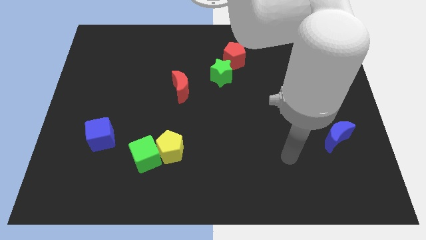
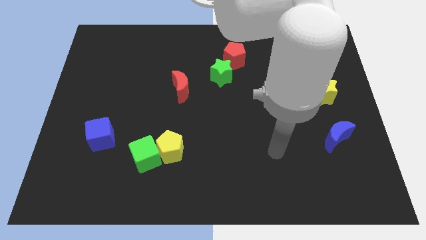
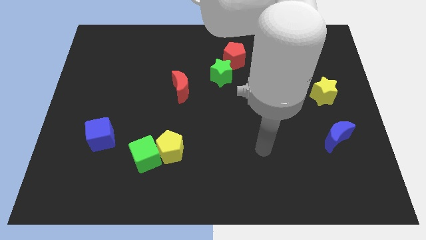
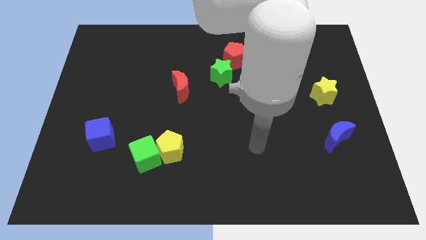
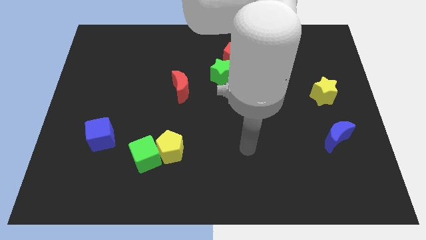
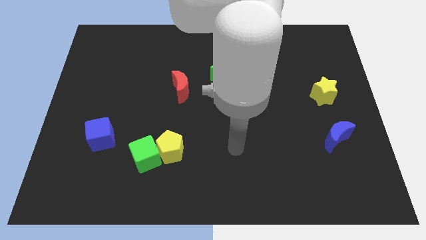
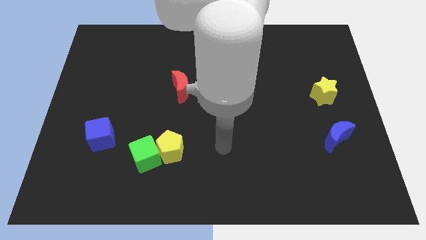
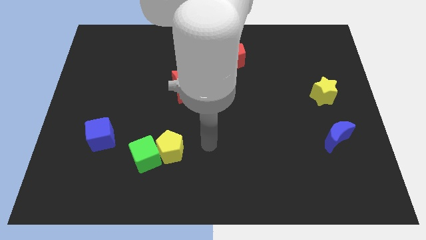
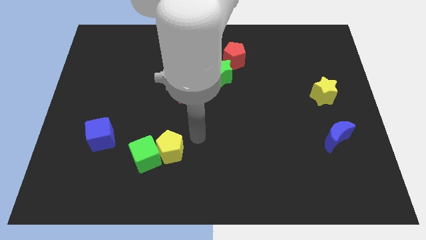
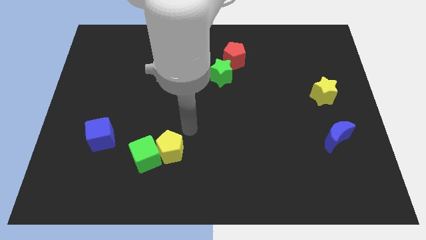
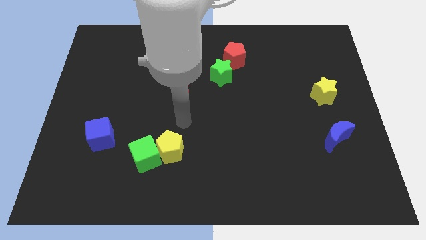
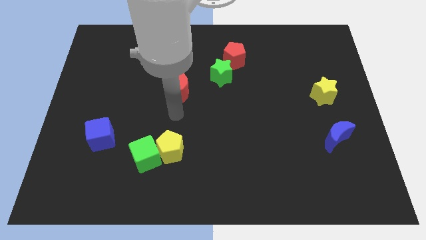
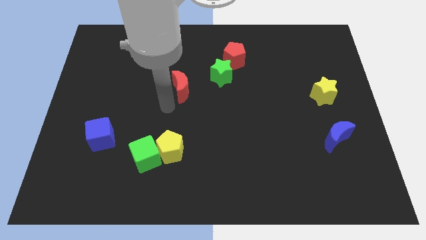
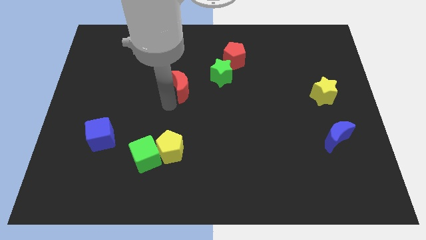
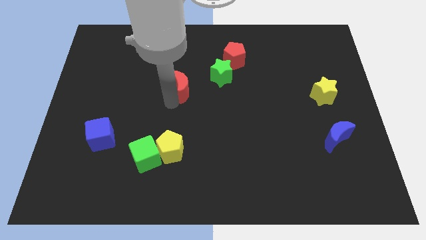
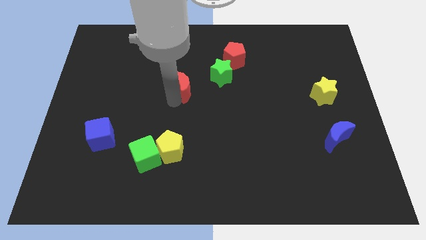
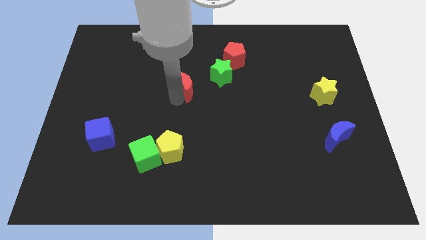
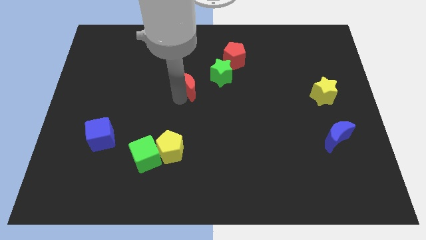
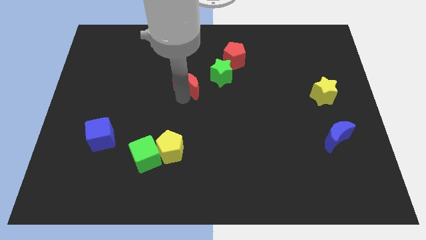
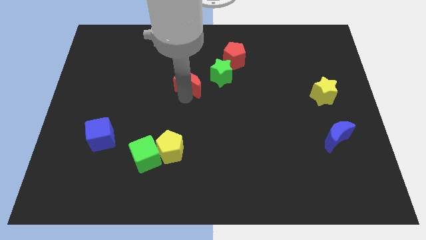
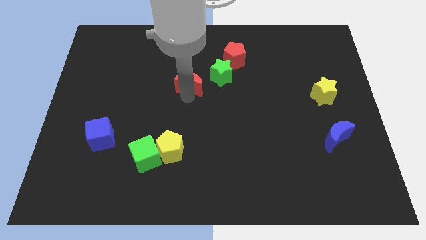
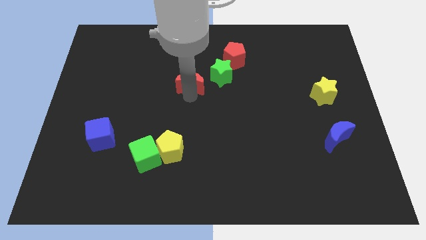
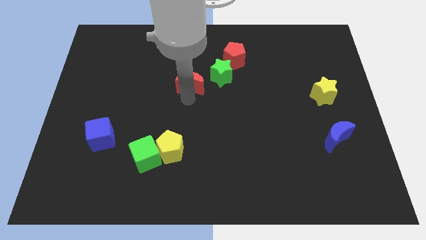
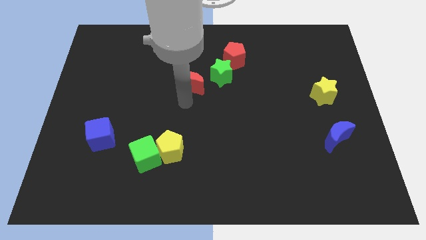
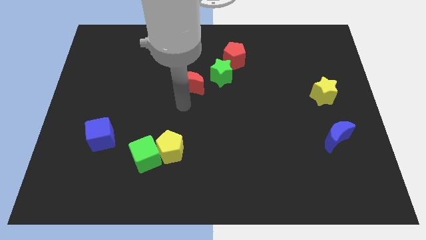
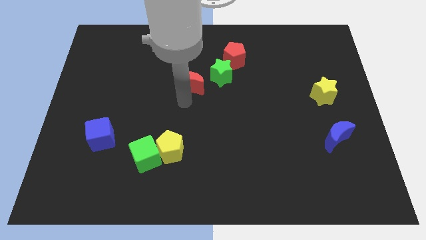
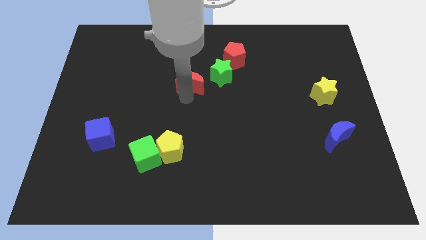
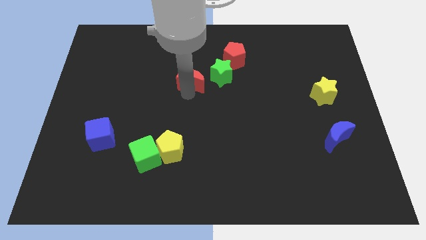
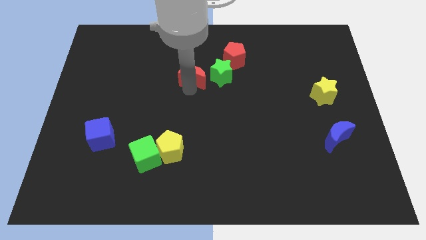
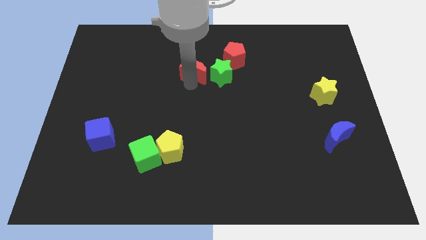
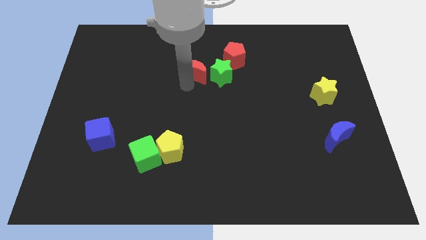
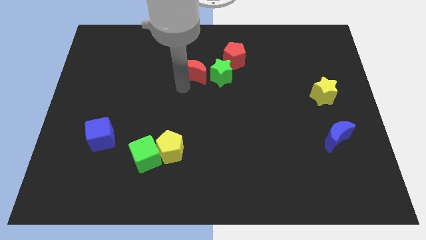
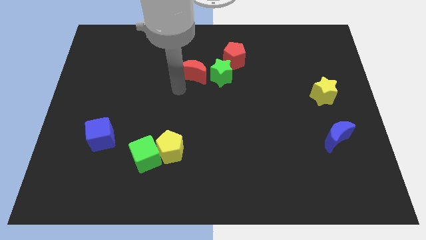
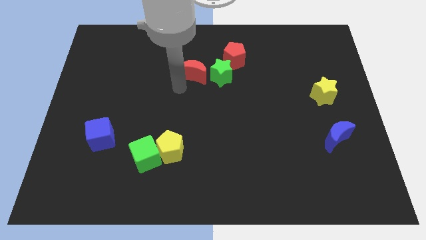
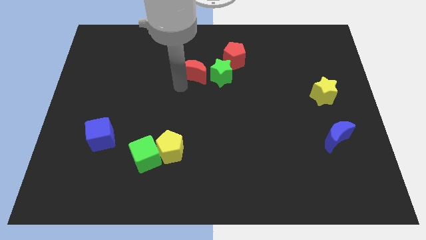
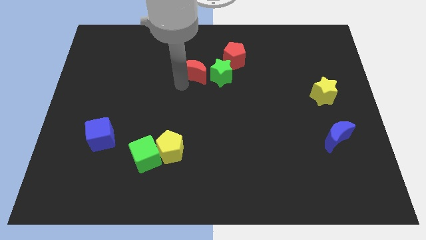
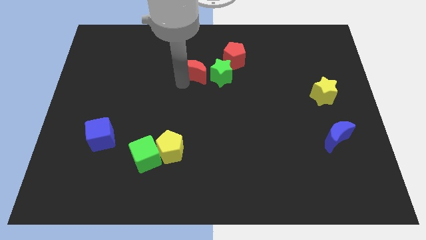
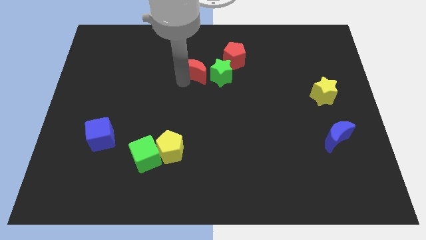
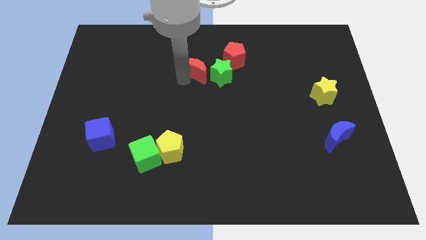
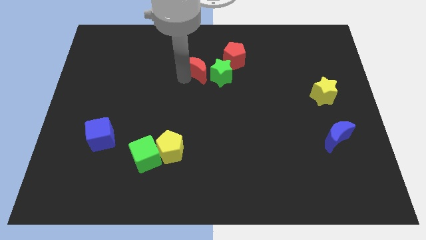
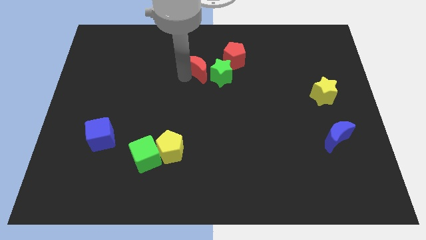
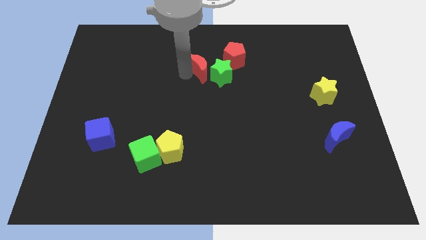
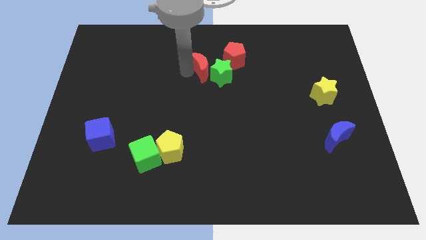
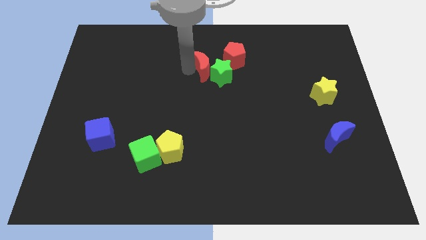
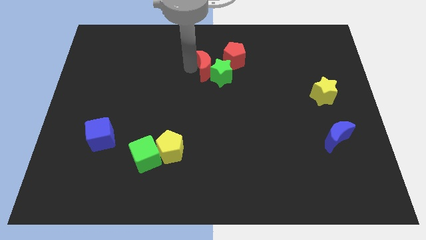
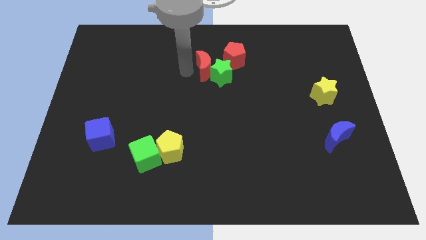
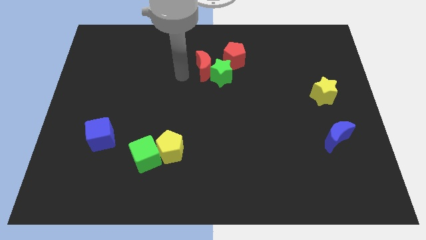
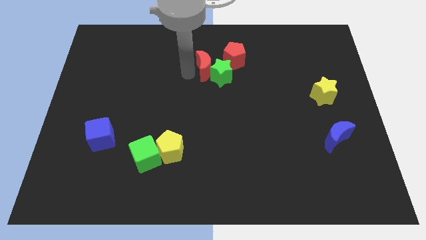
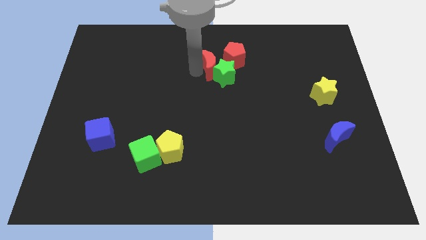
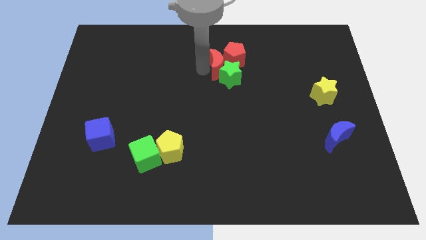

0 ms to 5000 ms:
slide the red moon next to the red pentagon

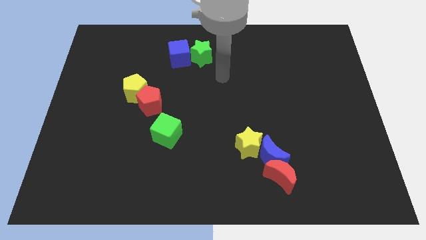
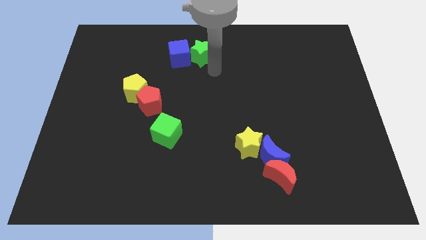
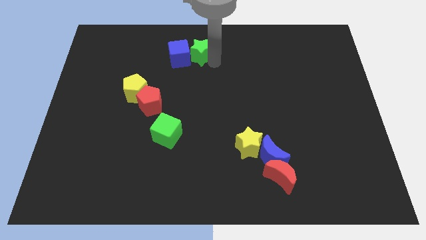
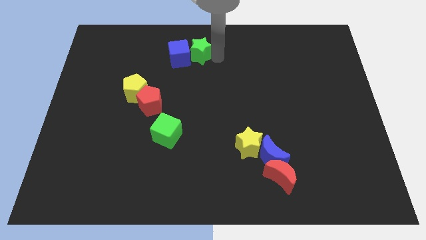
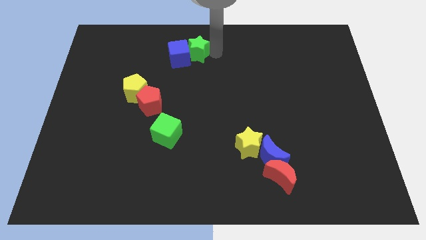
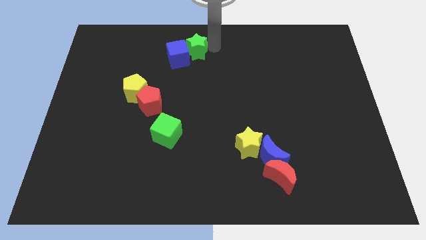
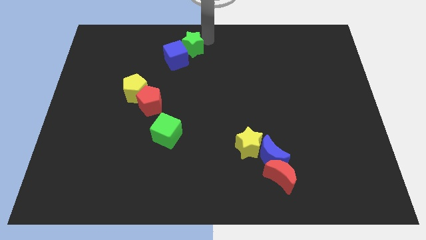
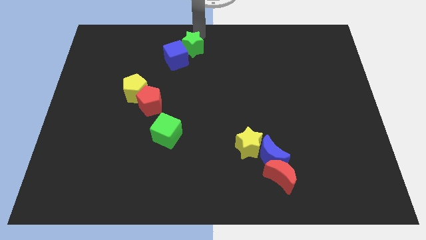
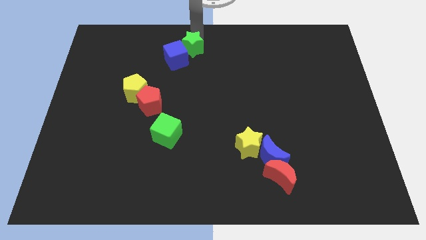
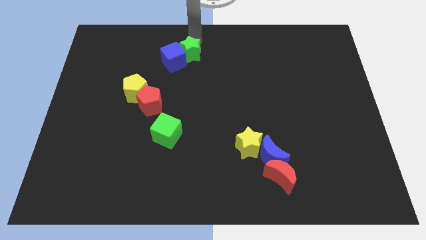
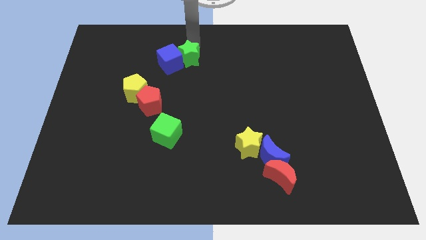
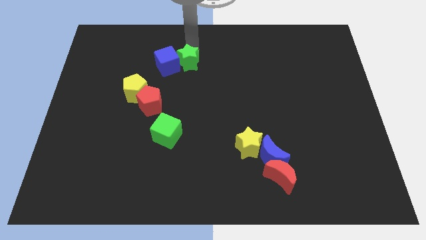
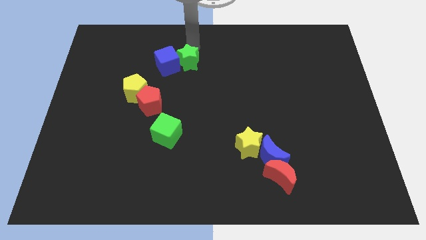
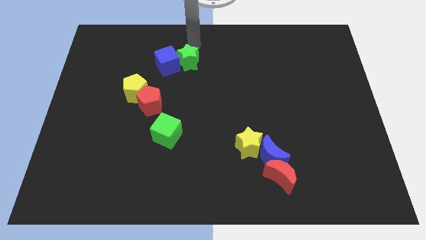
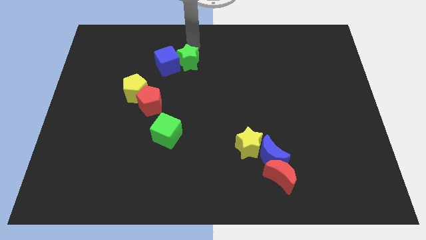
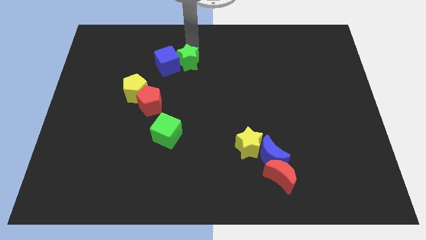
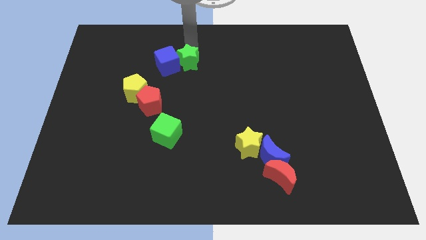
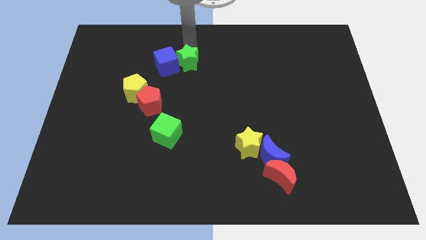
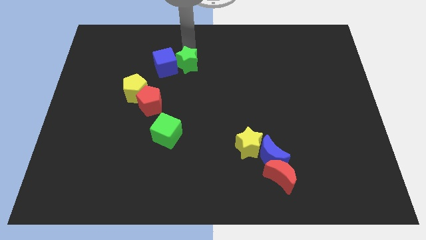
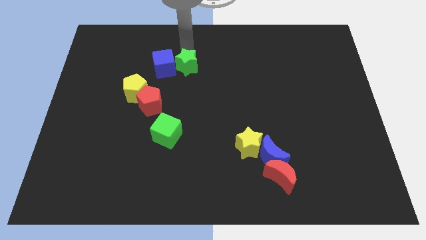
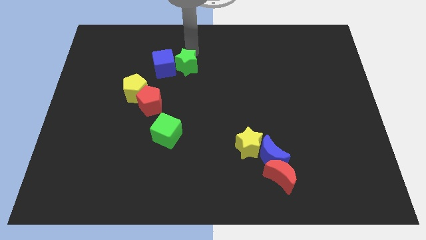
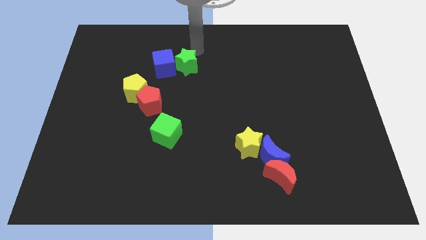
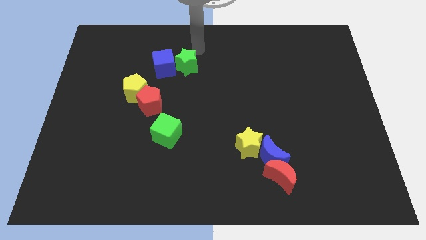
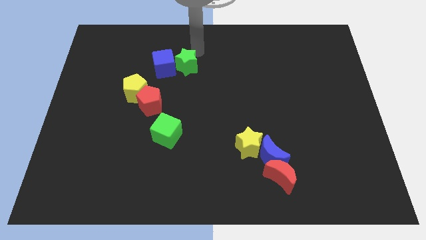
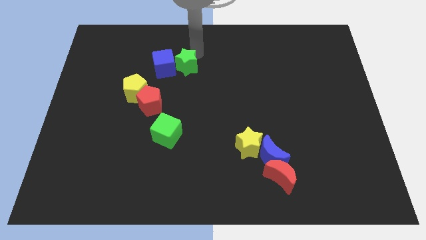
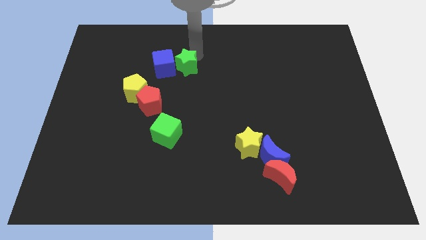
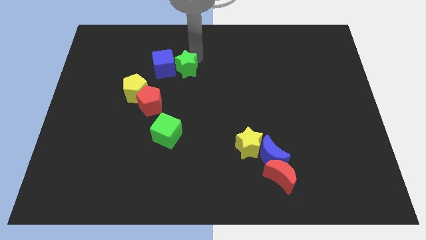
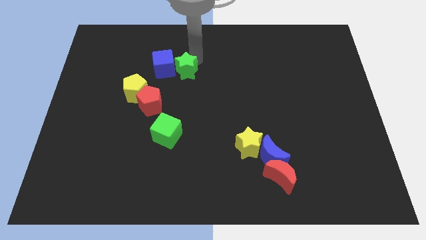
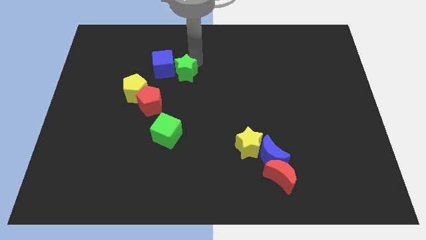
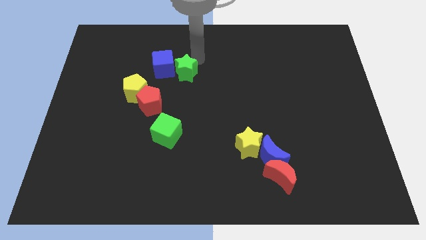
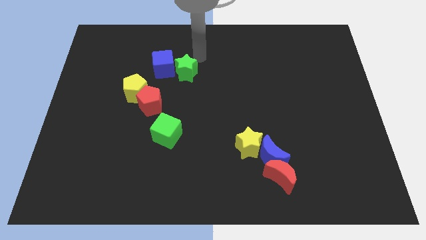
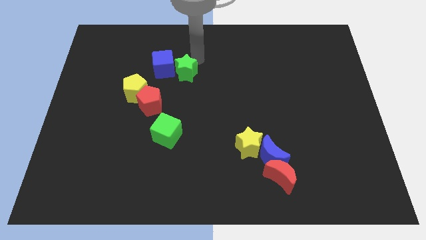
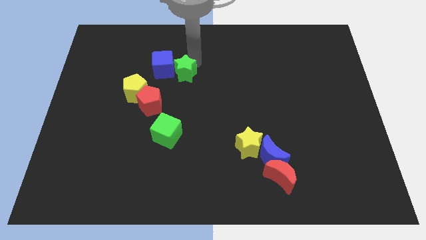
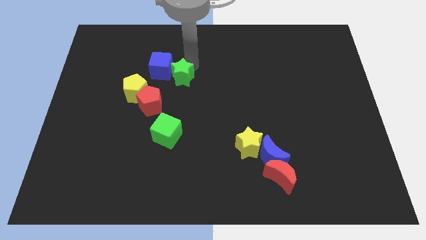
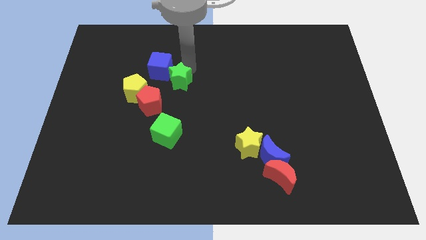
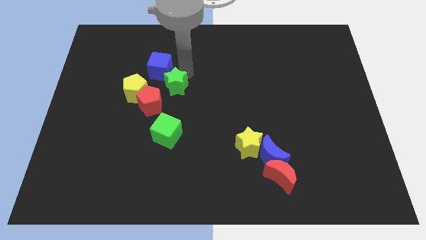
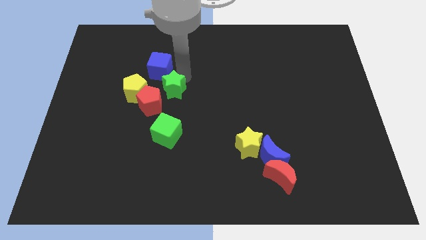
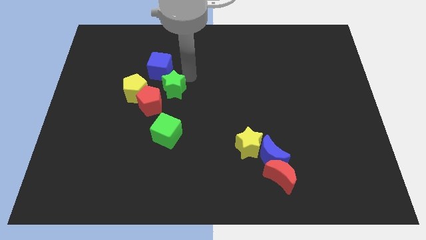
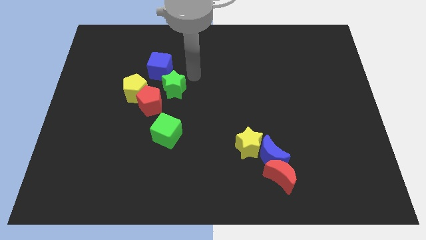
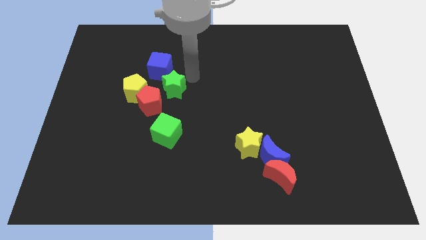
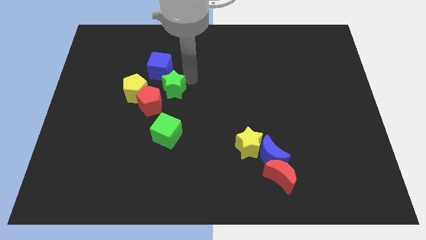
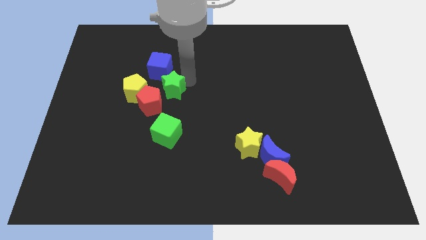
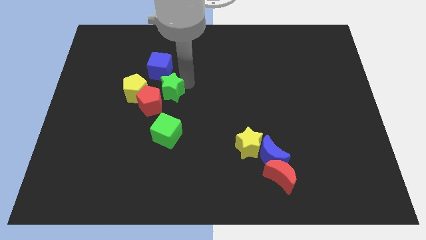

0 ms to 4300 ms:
slide the green star to the red pentagon
